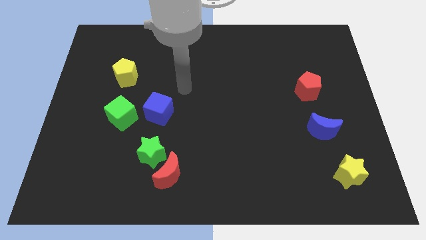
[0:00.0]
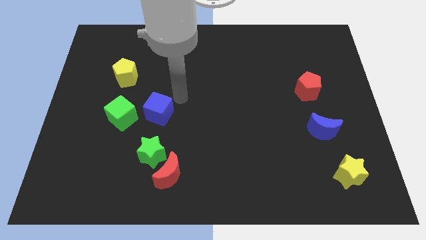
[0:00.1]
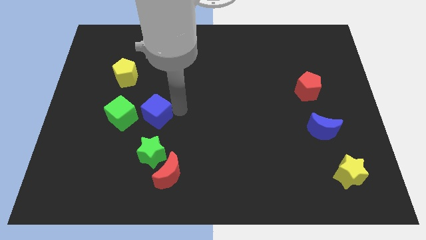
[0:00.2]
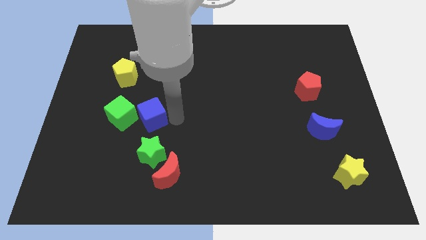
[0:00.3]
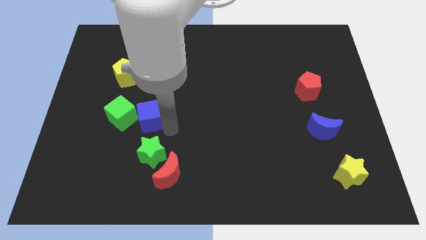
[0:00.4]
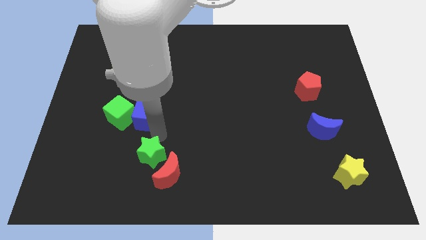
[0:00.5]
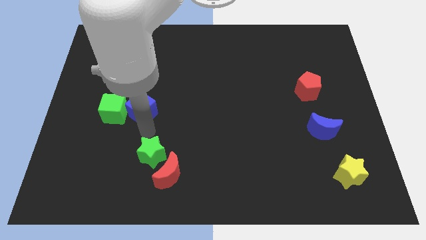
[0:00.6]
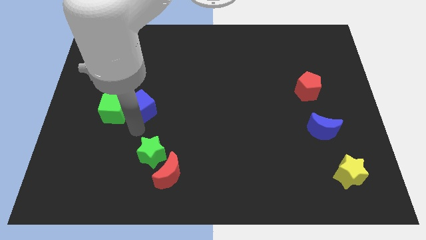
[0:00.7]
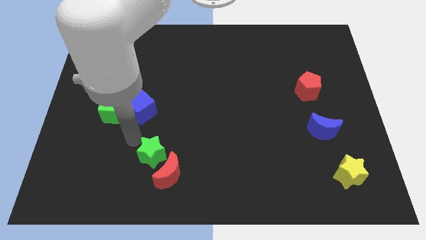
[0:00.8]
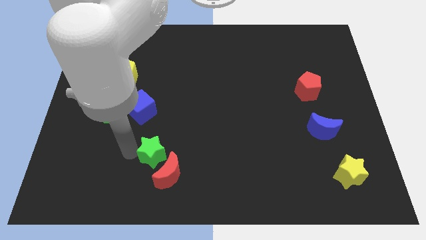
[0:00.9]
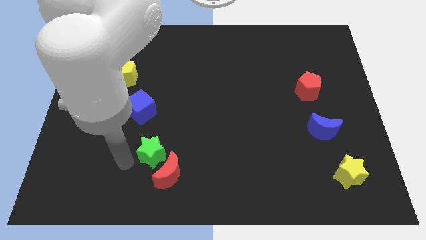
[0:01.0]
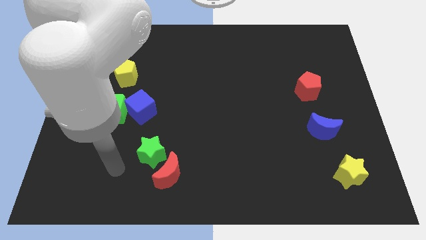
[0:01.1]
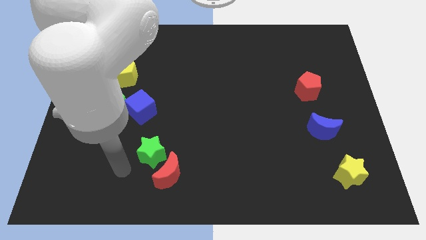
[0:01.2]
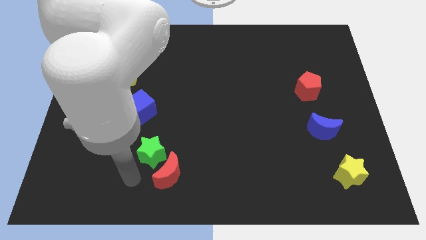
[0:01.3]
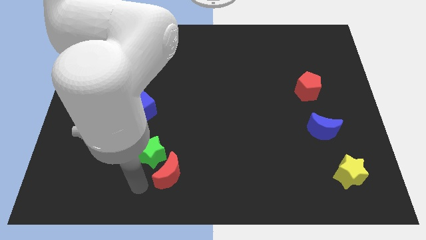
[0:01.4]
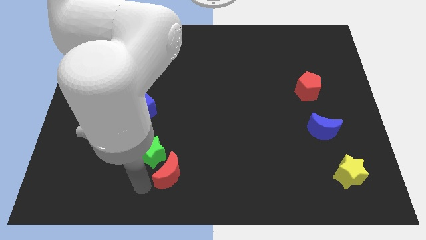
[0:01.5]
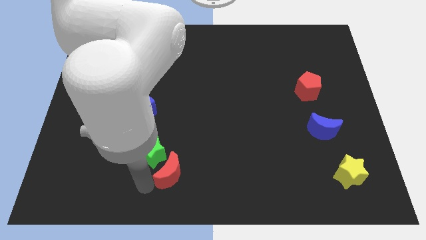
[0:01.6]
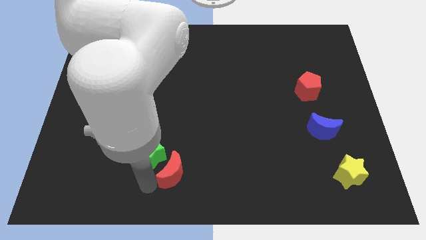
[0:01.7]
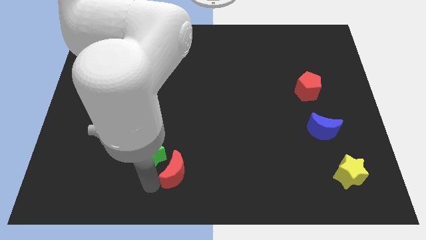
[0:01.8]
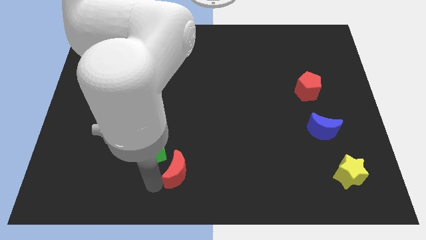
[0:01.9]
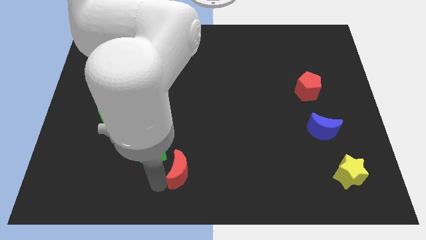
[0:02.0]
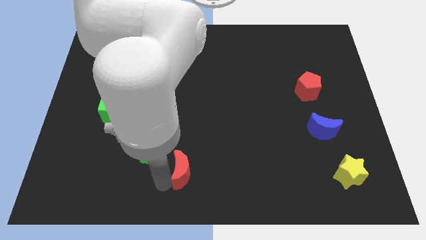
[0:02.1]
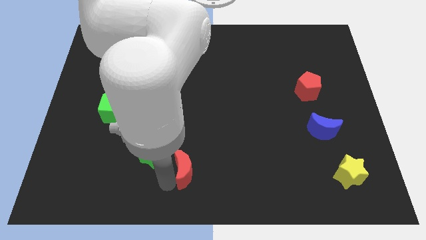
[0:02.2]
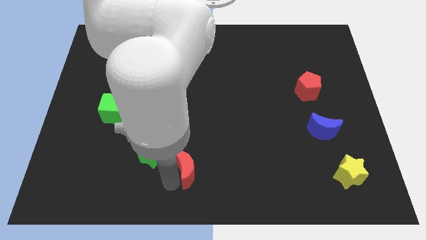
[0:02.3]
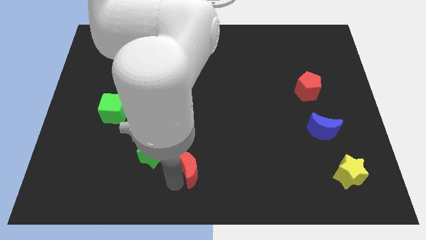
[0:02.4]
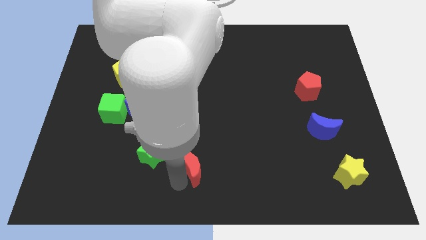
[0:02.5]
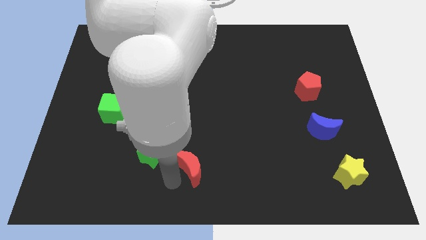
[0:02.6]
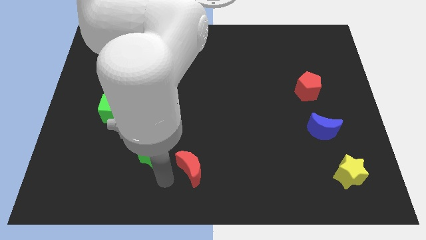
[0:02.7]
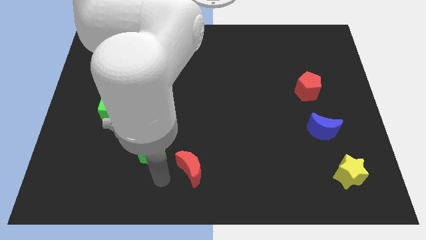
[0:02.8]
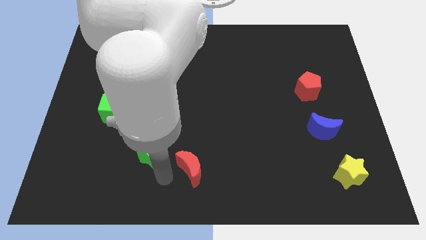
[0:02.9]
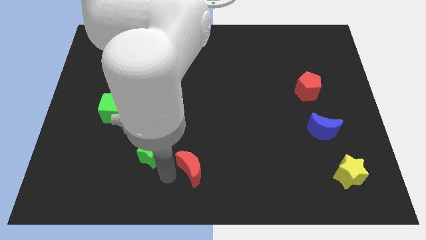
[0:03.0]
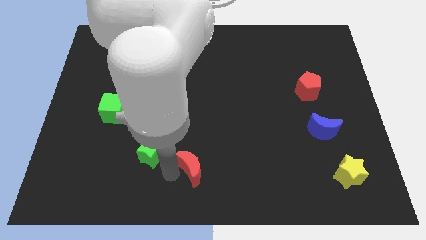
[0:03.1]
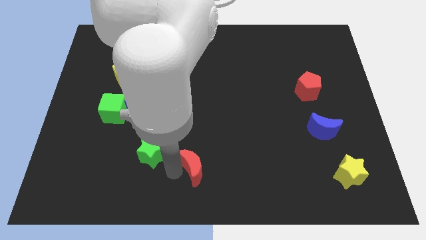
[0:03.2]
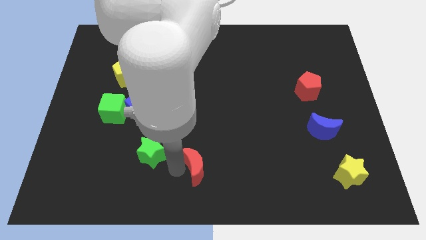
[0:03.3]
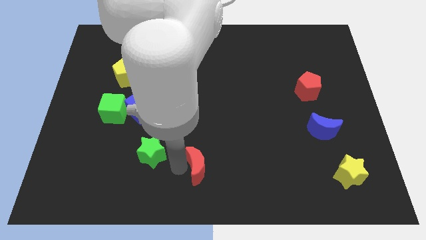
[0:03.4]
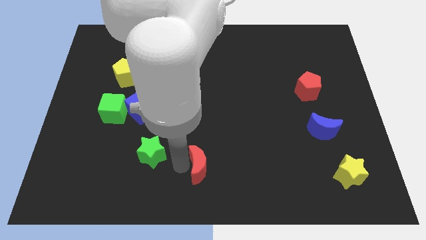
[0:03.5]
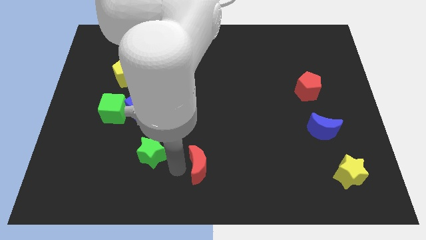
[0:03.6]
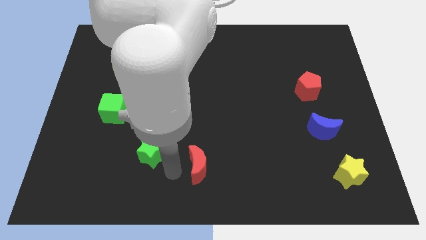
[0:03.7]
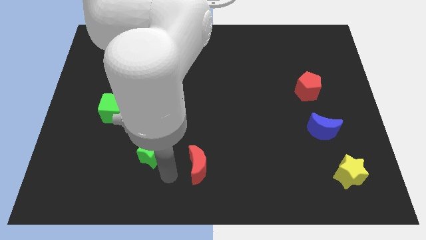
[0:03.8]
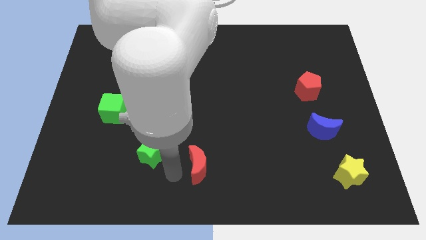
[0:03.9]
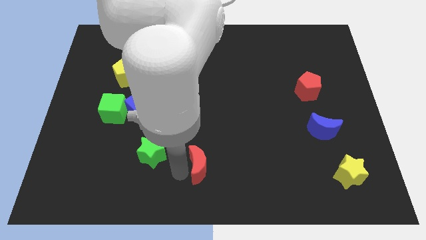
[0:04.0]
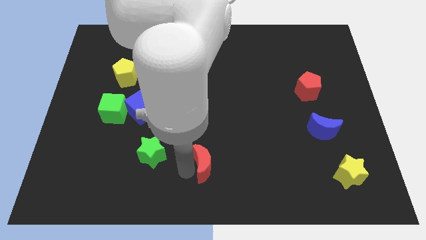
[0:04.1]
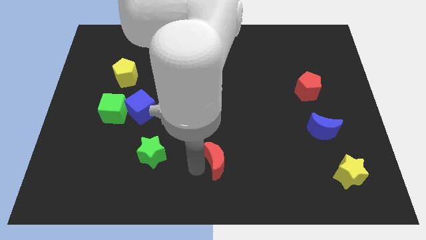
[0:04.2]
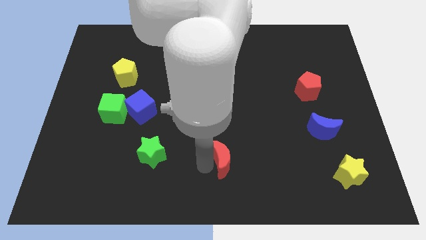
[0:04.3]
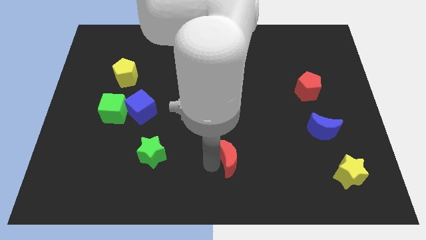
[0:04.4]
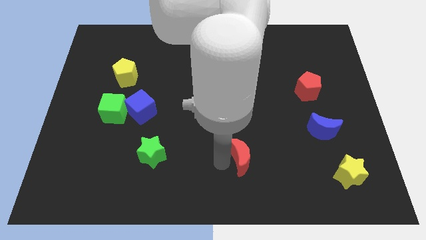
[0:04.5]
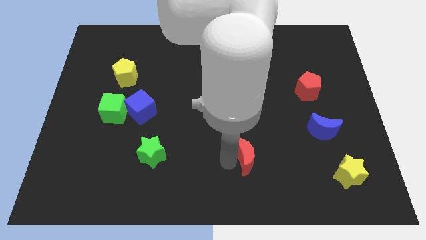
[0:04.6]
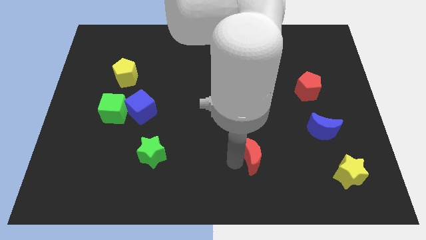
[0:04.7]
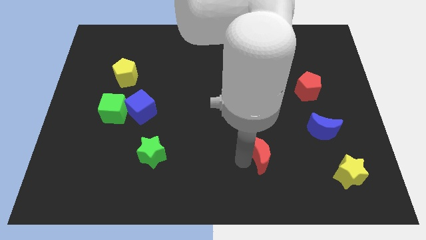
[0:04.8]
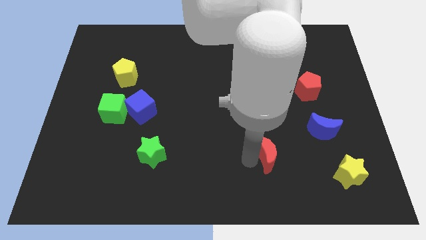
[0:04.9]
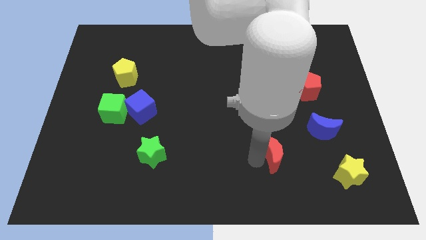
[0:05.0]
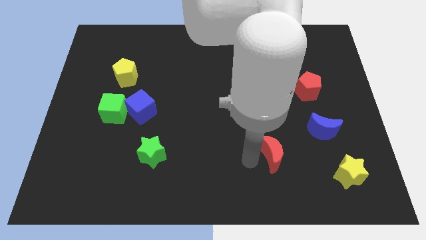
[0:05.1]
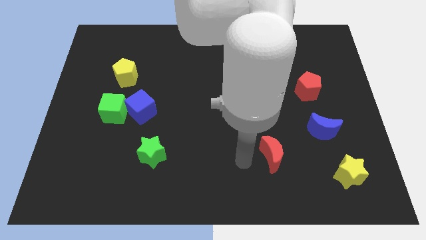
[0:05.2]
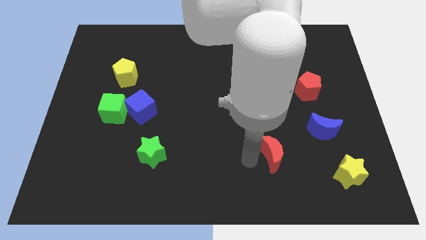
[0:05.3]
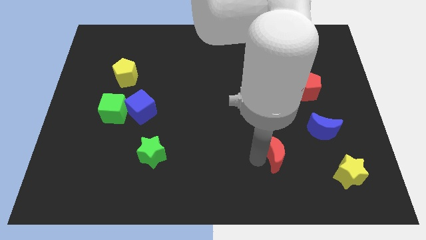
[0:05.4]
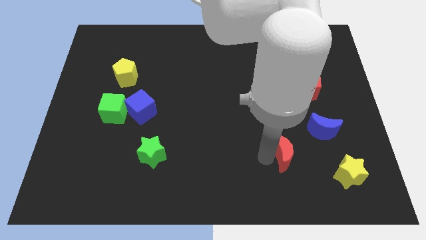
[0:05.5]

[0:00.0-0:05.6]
put the red moon to the bottom left of the blue moon

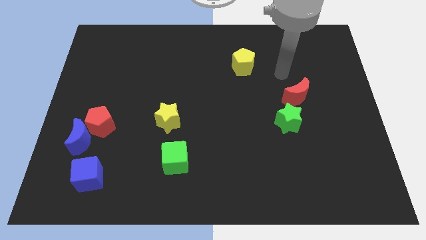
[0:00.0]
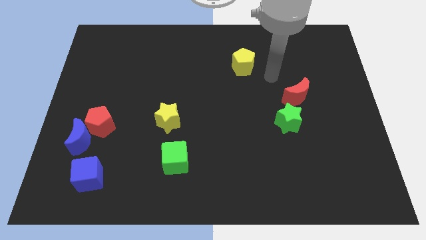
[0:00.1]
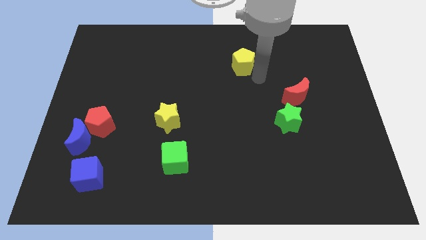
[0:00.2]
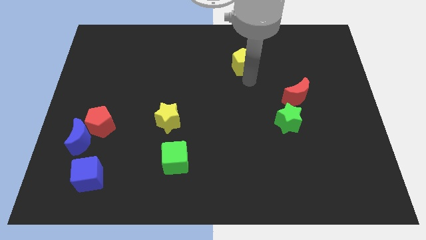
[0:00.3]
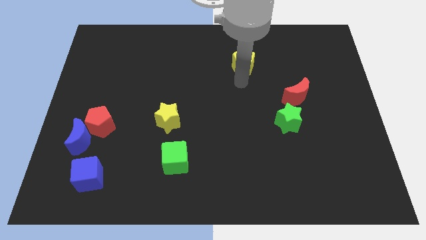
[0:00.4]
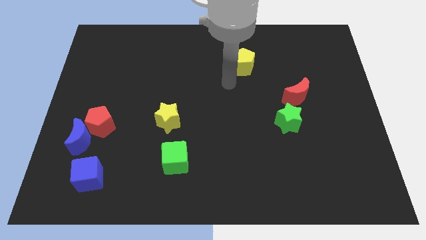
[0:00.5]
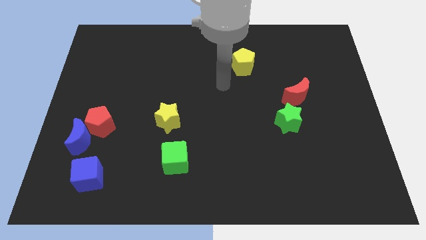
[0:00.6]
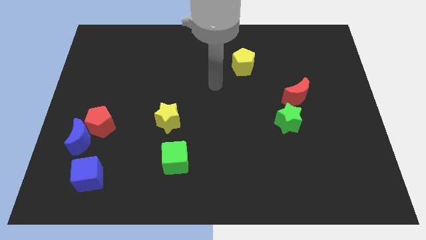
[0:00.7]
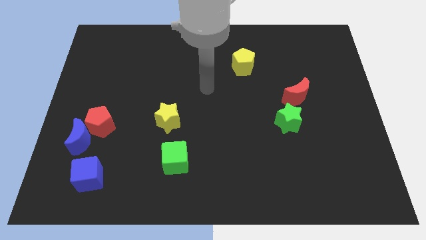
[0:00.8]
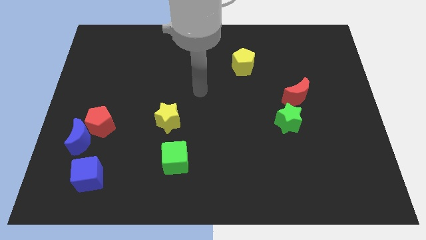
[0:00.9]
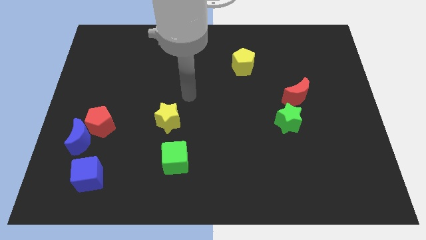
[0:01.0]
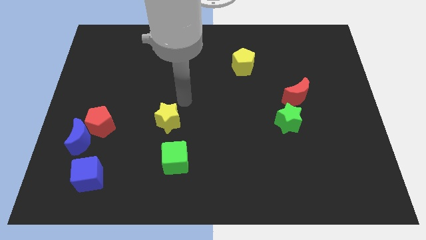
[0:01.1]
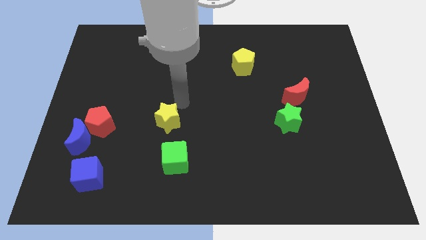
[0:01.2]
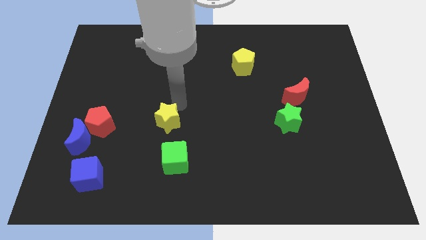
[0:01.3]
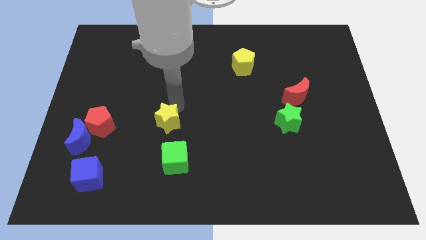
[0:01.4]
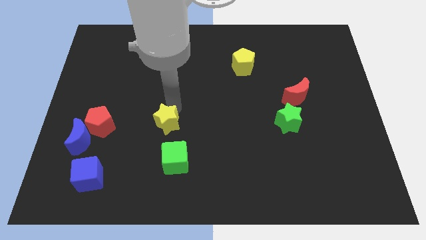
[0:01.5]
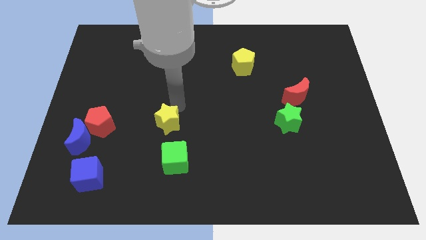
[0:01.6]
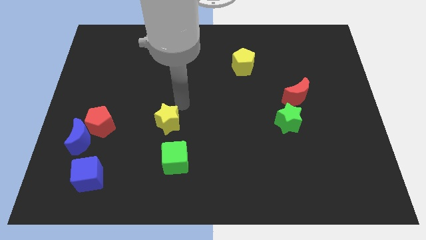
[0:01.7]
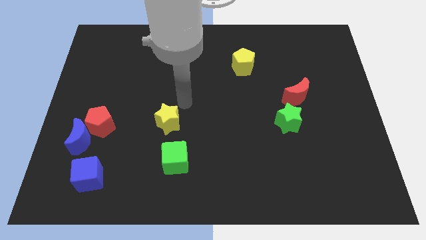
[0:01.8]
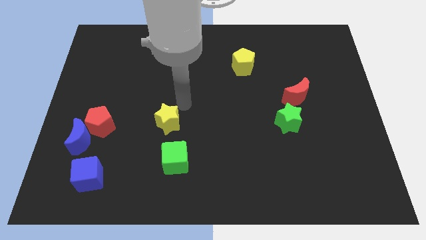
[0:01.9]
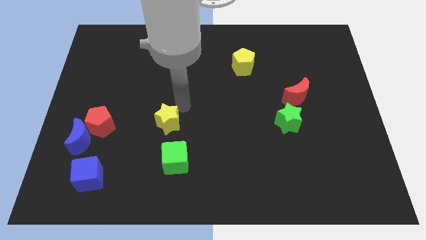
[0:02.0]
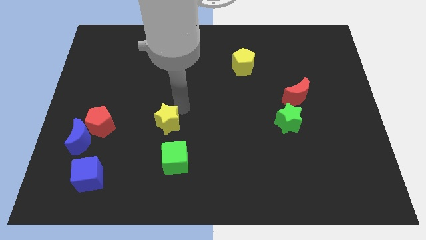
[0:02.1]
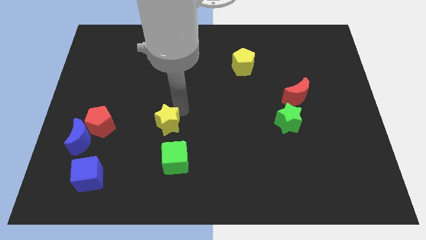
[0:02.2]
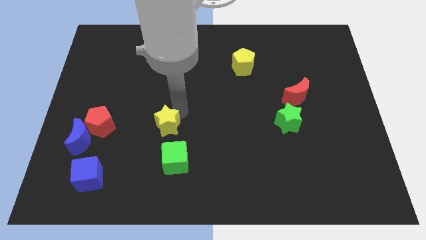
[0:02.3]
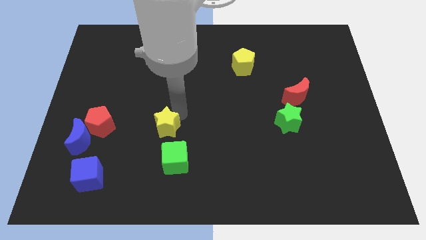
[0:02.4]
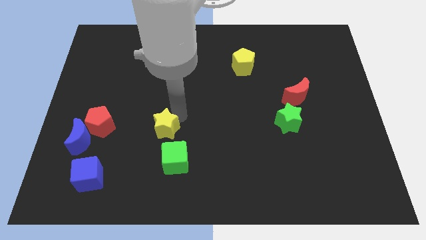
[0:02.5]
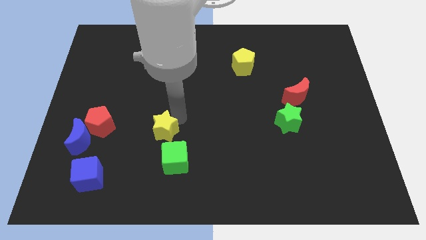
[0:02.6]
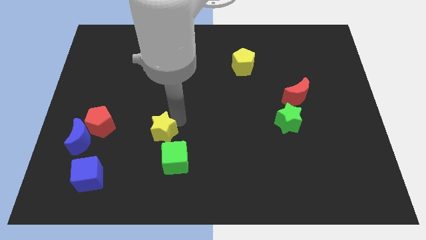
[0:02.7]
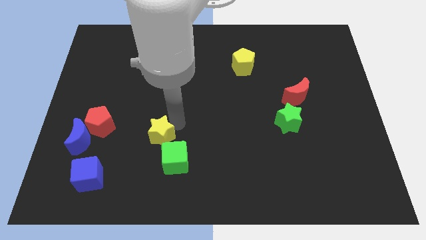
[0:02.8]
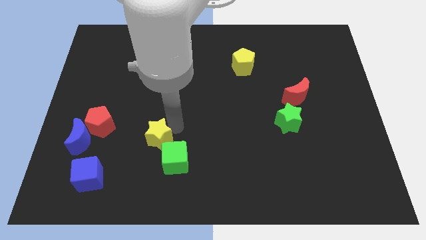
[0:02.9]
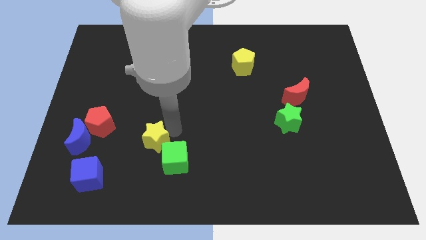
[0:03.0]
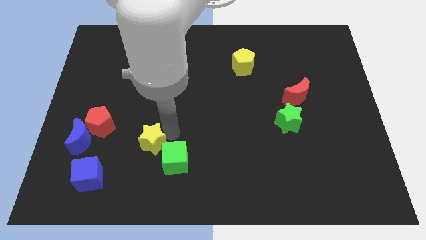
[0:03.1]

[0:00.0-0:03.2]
push the yellow star to the left of the green cube
